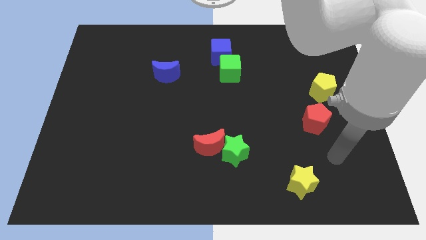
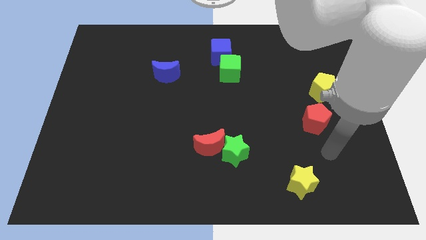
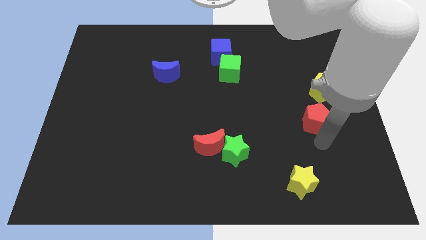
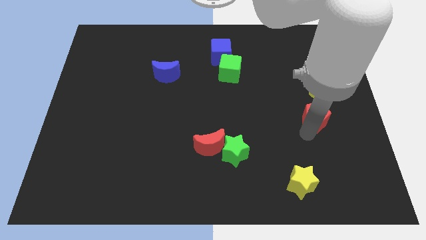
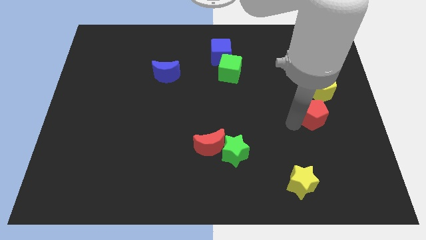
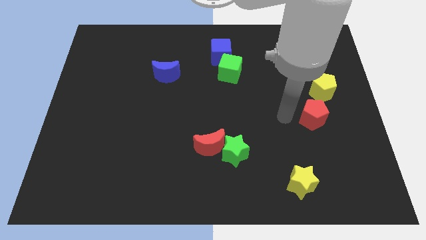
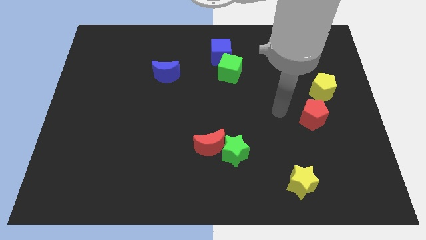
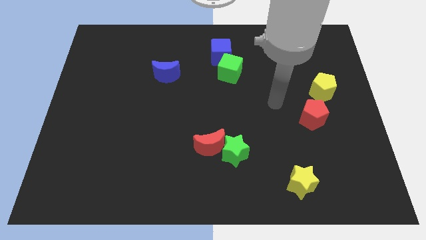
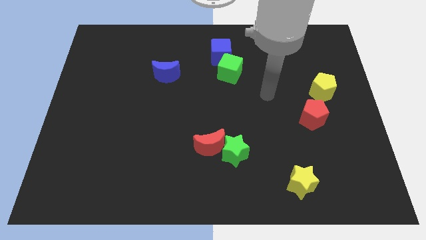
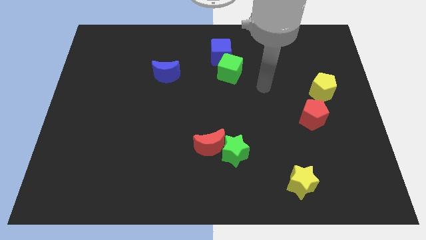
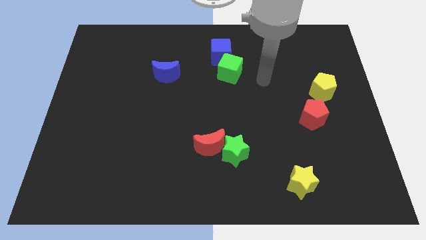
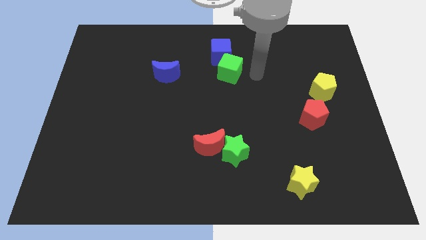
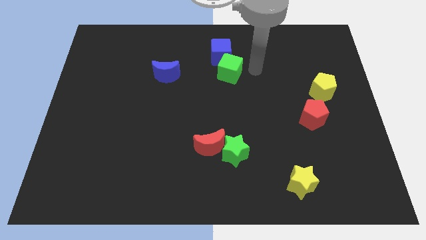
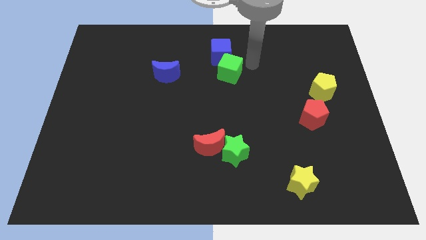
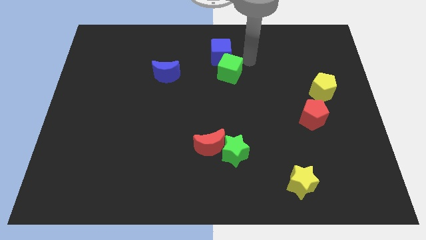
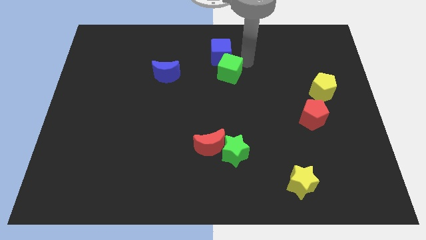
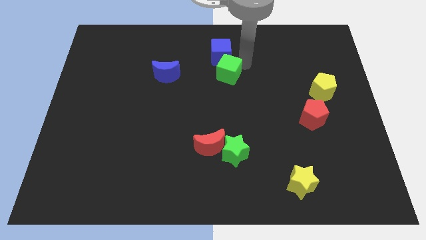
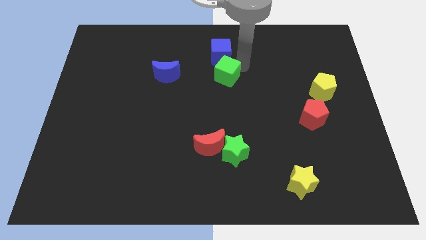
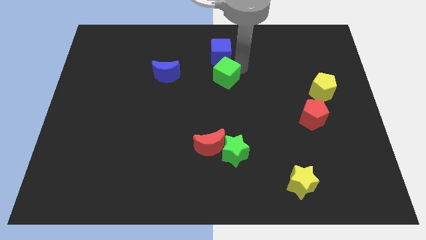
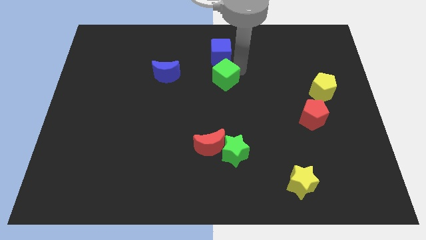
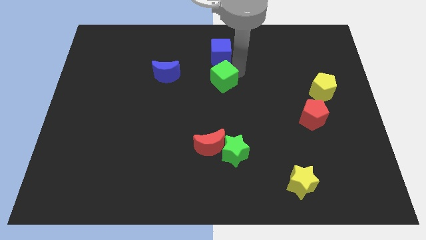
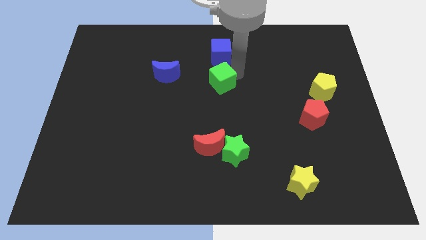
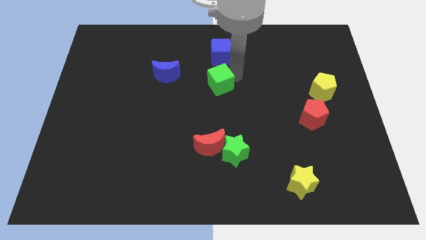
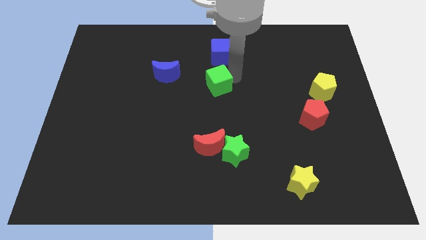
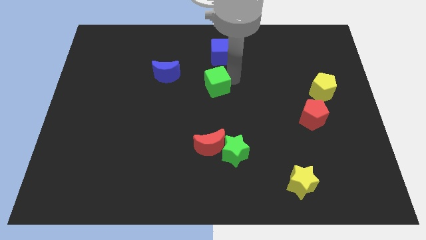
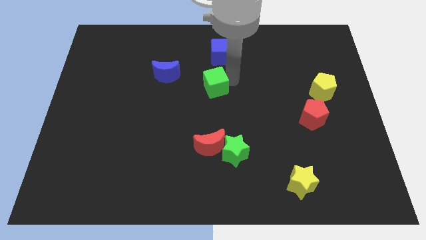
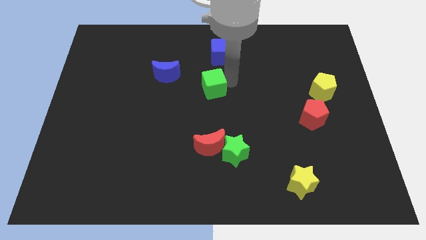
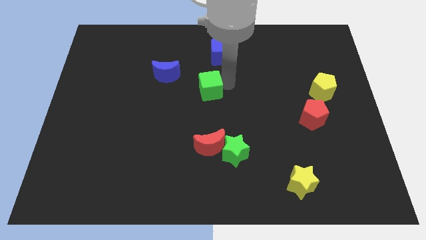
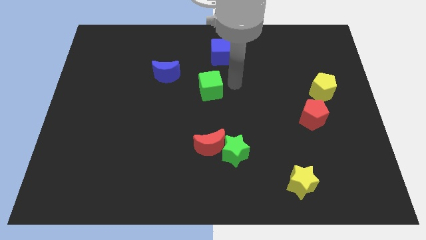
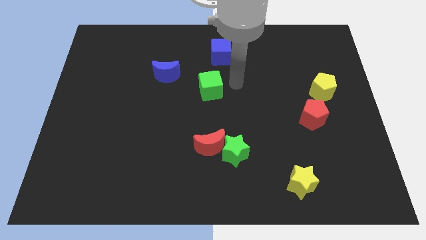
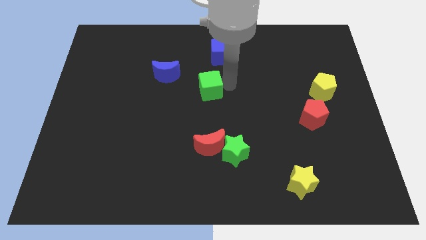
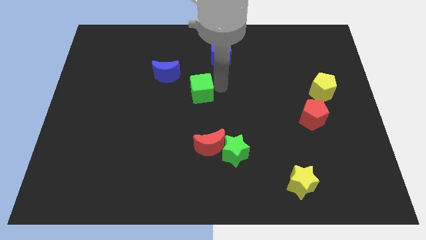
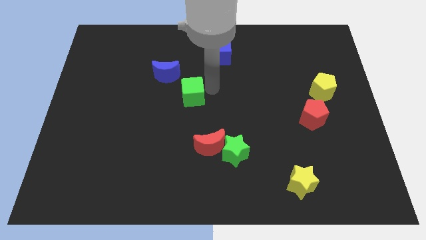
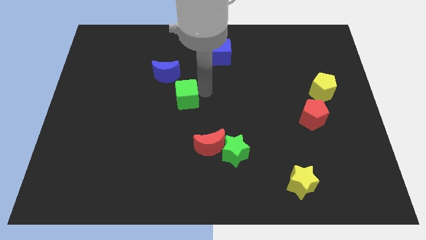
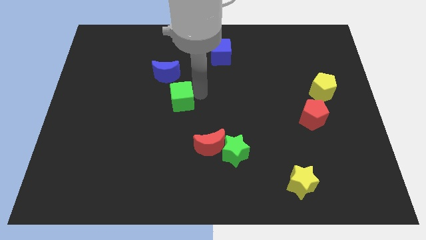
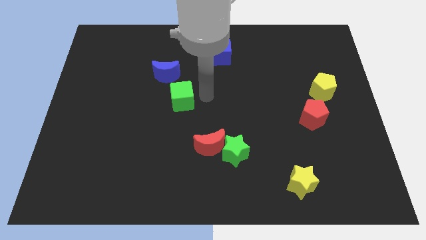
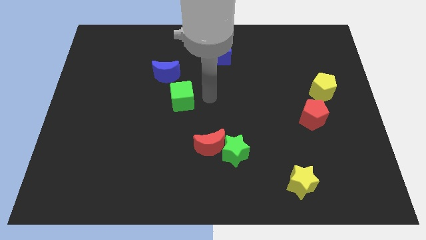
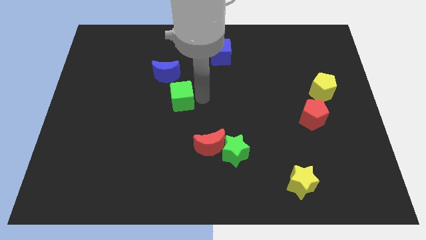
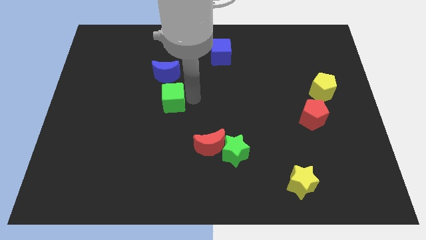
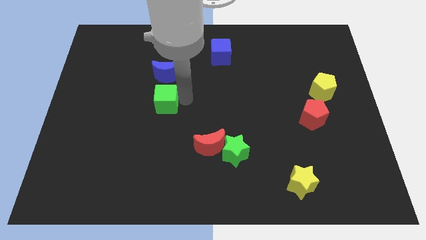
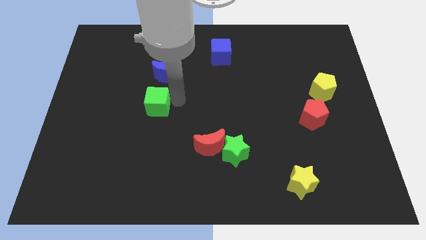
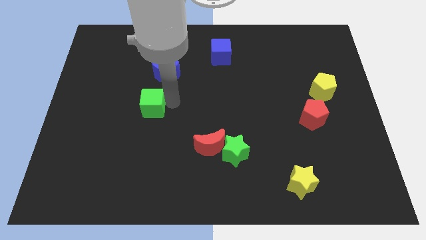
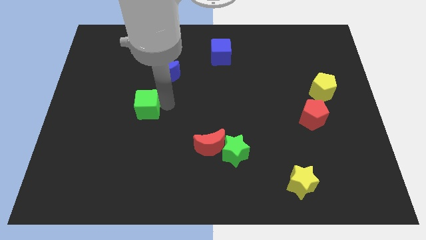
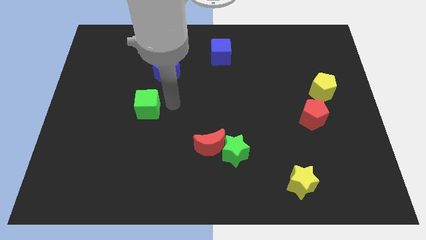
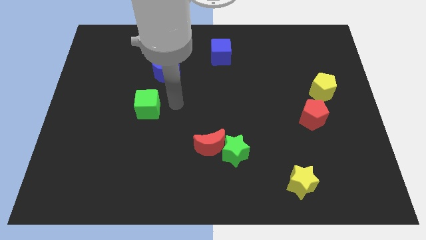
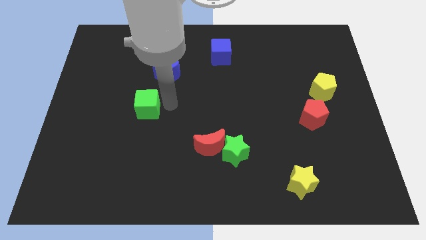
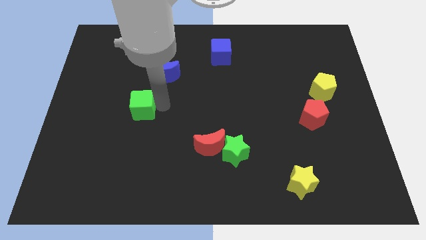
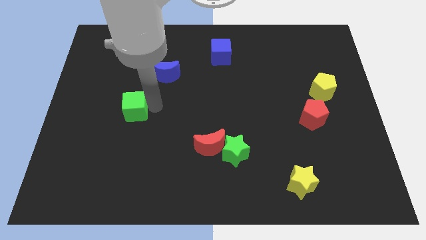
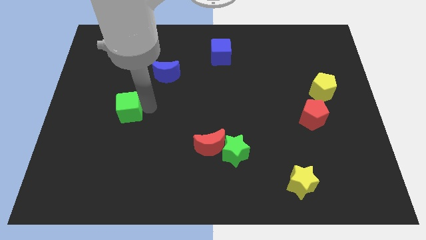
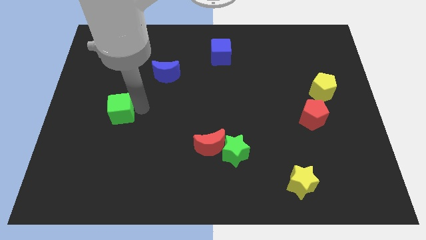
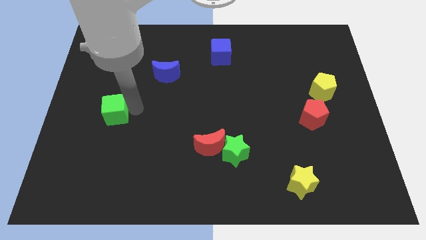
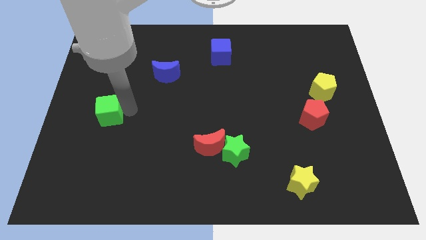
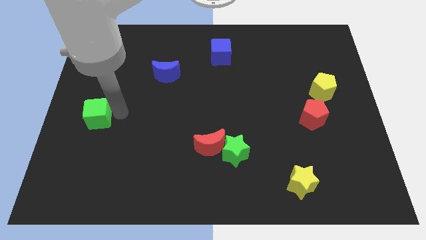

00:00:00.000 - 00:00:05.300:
slide the green cube to the left side of the board

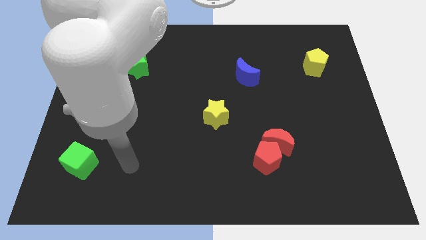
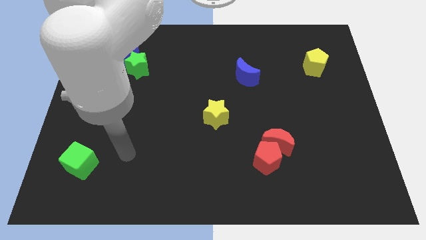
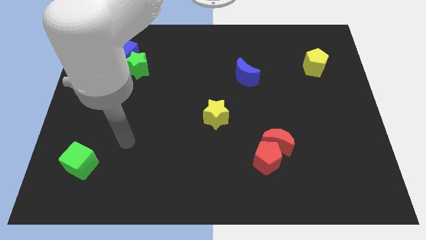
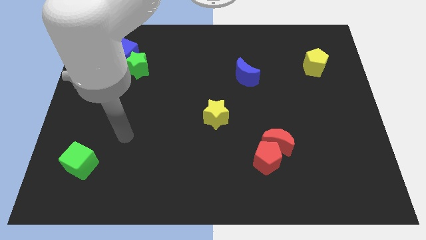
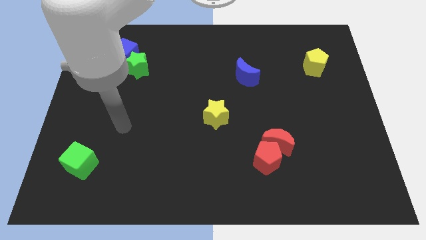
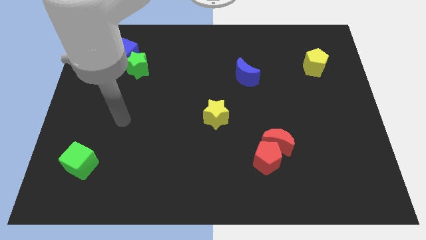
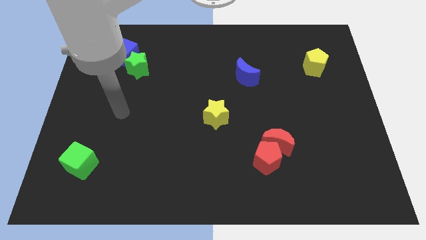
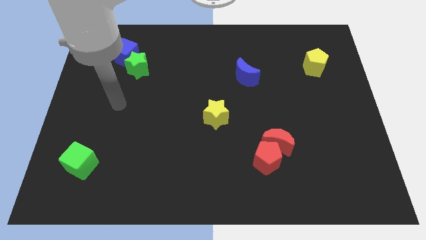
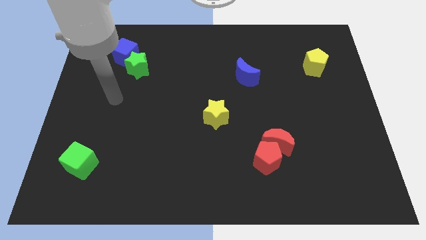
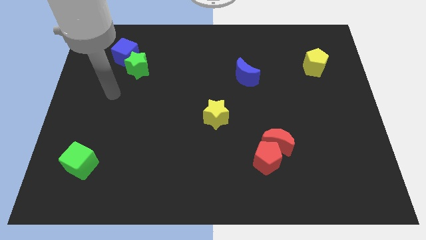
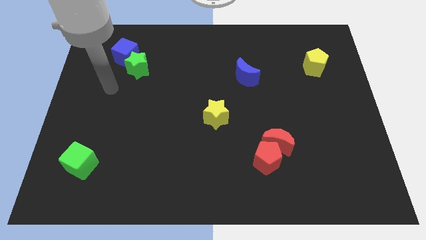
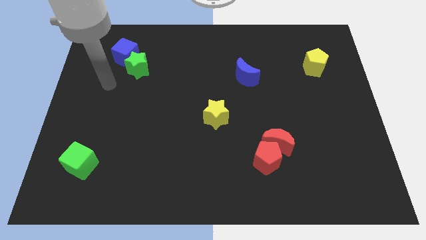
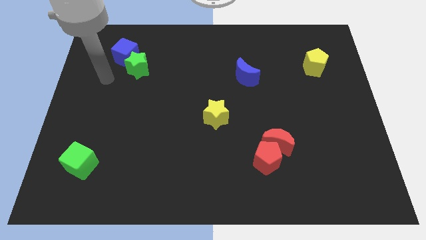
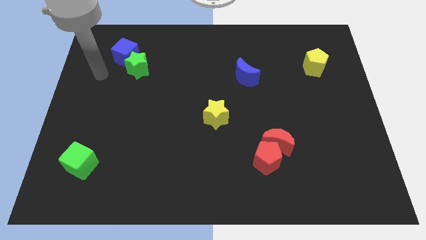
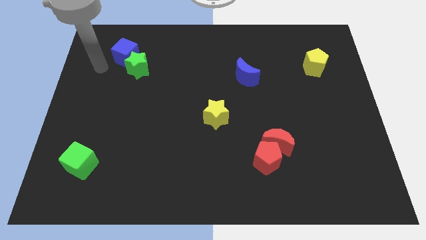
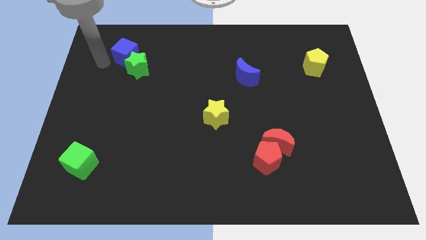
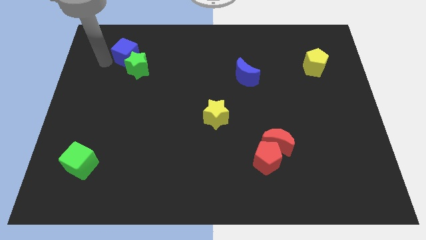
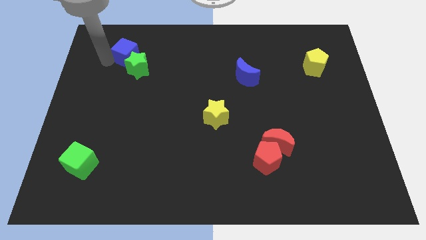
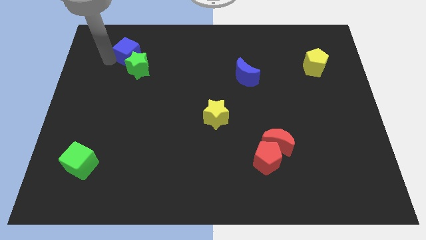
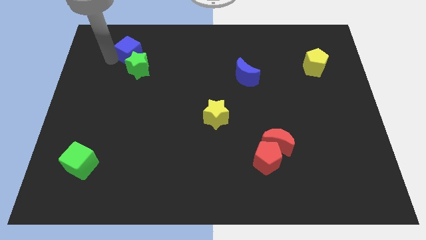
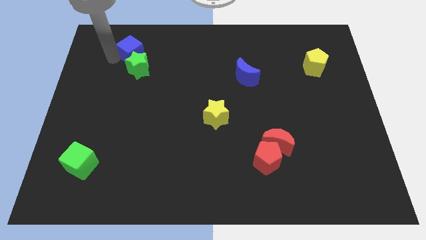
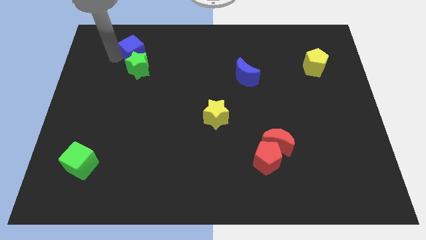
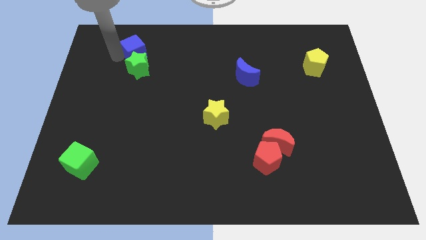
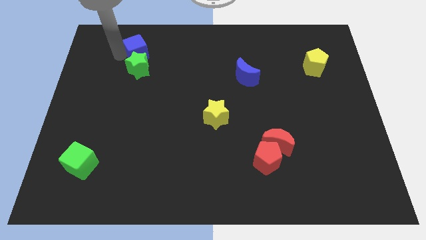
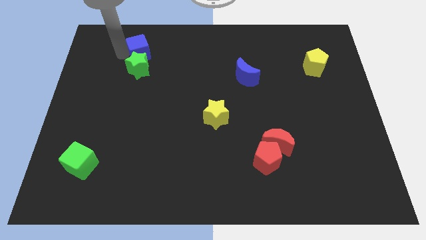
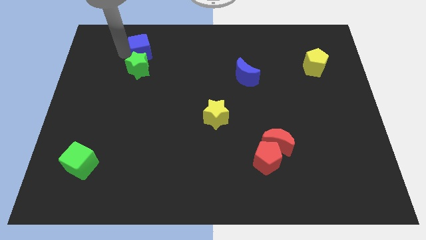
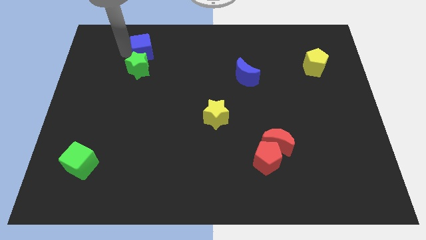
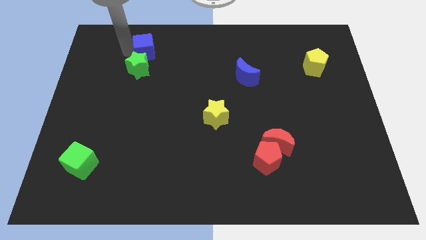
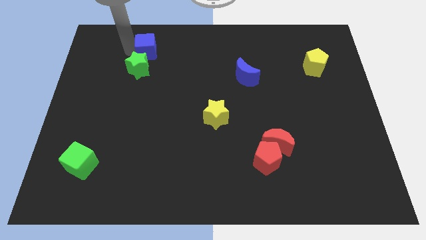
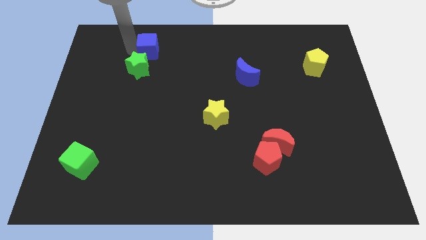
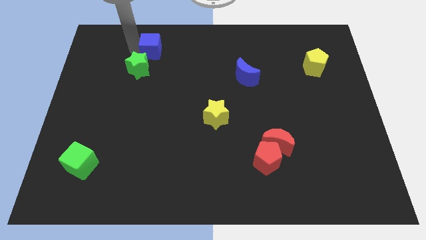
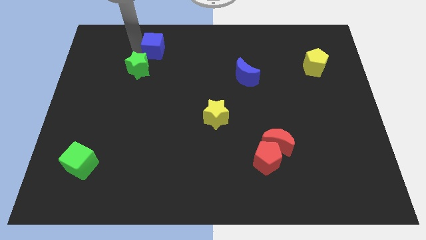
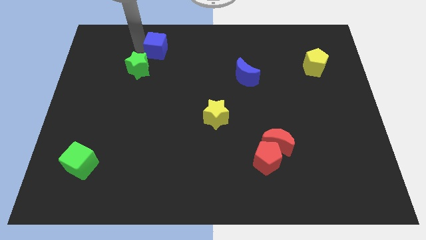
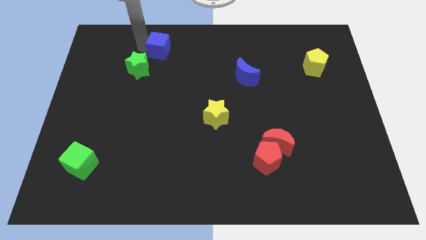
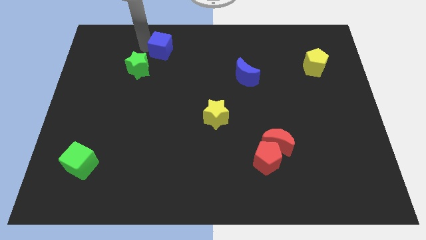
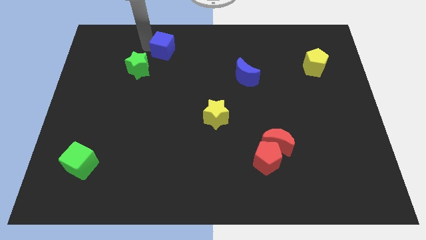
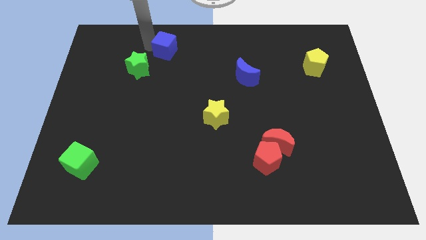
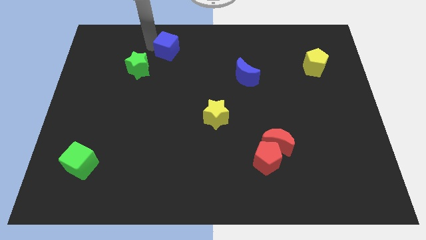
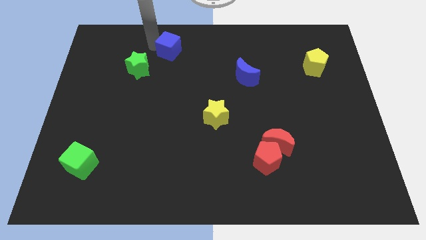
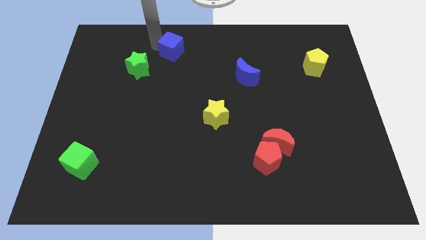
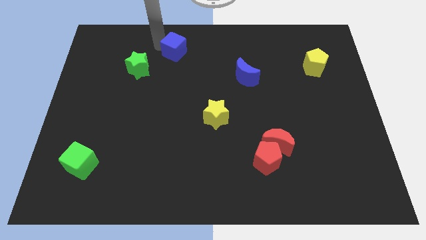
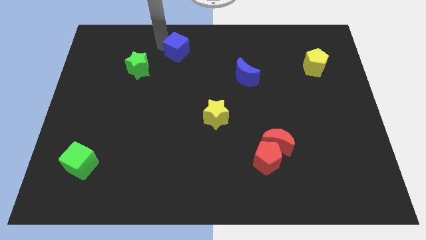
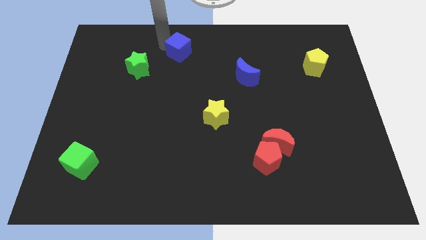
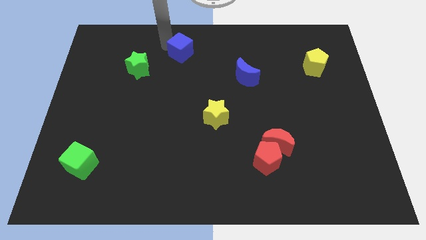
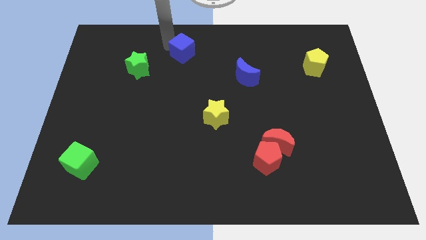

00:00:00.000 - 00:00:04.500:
move the blue cube to the towards your base
